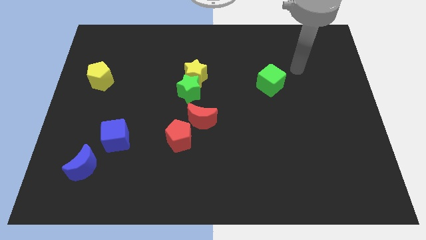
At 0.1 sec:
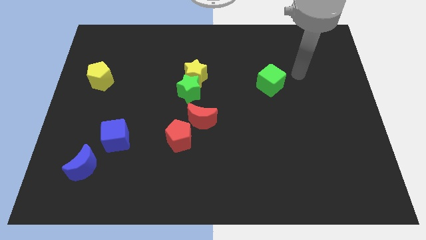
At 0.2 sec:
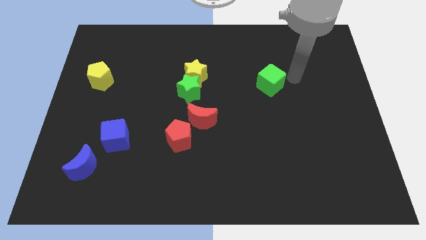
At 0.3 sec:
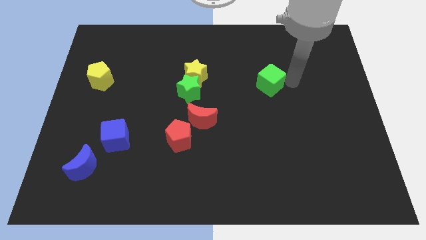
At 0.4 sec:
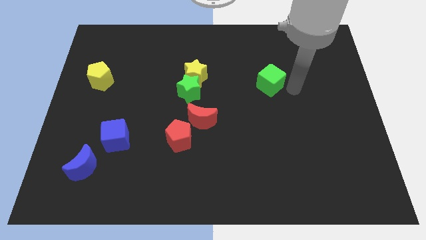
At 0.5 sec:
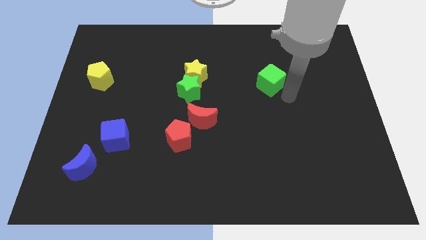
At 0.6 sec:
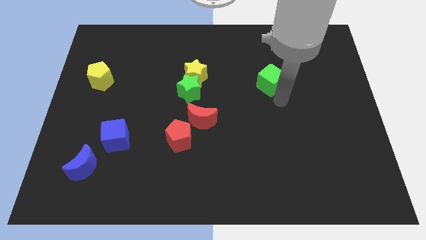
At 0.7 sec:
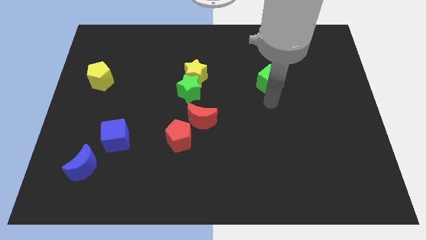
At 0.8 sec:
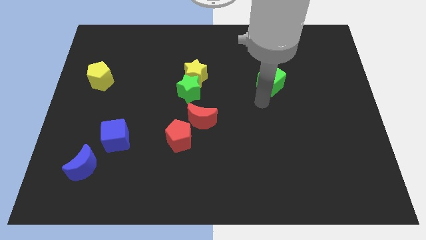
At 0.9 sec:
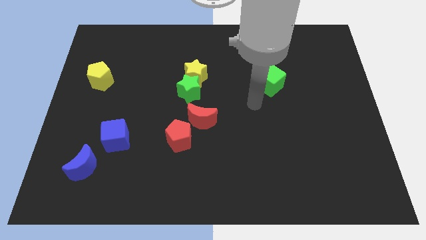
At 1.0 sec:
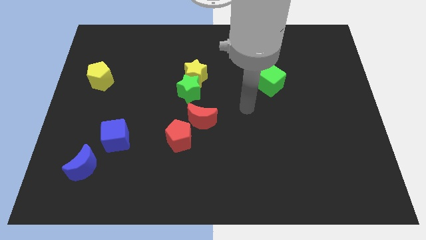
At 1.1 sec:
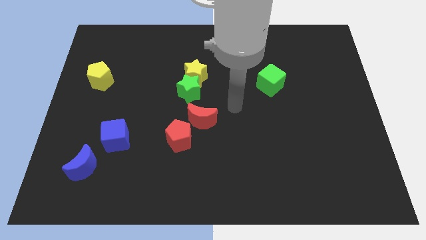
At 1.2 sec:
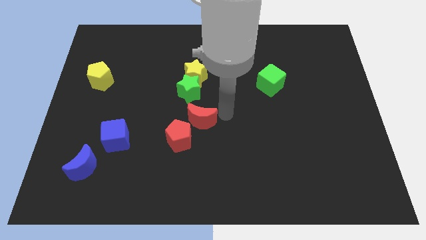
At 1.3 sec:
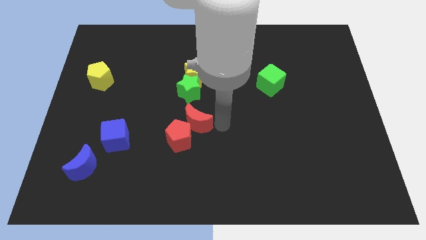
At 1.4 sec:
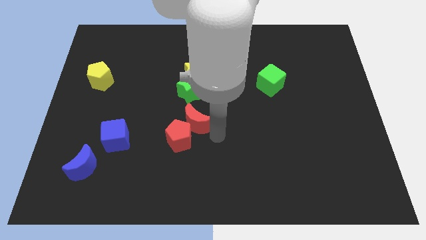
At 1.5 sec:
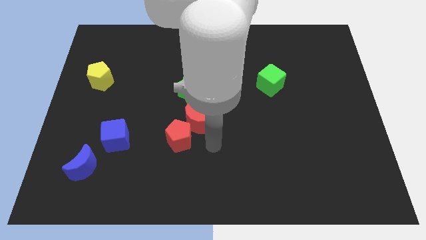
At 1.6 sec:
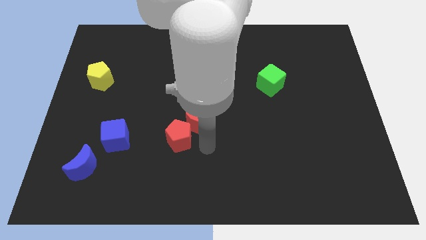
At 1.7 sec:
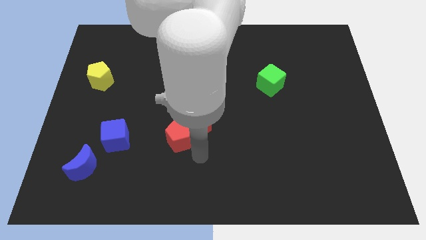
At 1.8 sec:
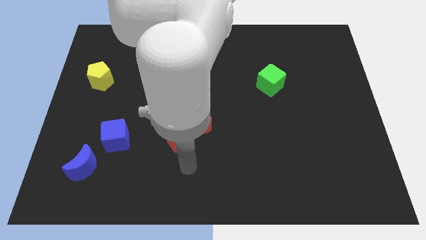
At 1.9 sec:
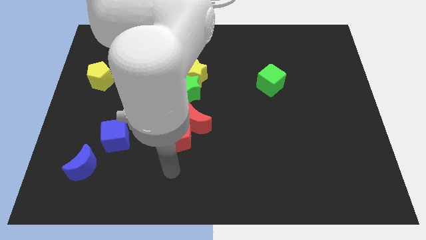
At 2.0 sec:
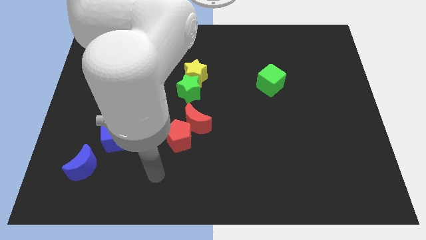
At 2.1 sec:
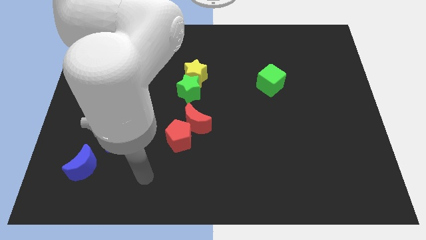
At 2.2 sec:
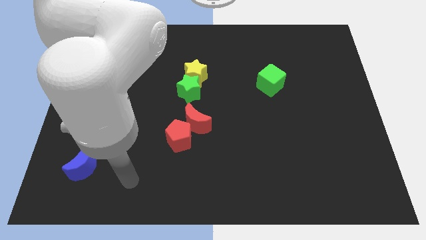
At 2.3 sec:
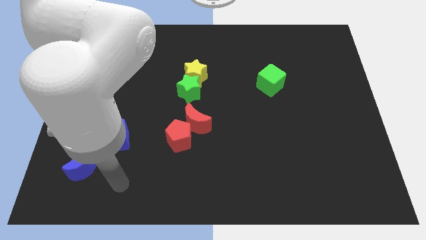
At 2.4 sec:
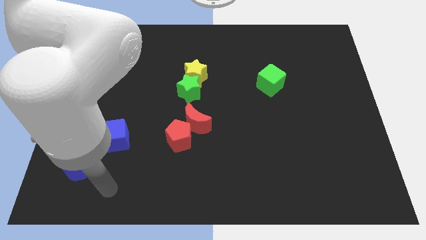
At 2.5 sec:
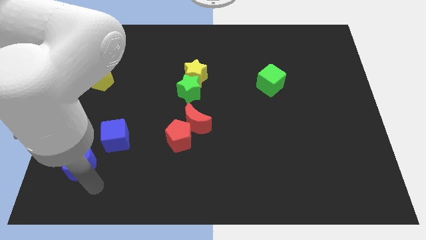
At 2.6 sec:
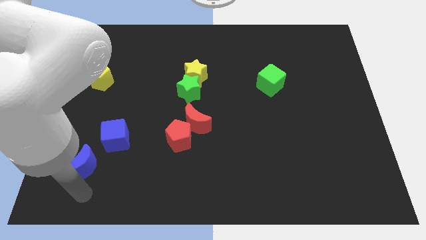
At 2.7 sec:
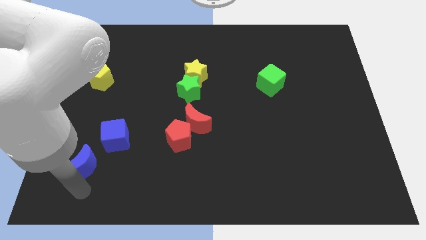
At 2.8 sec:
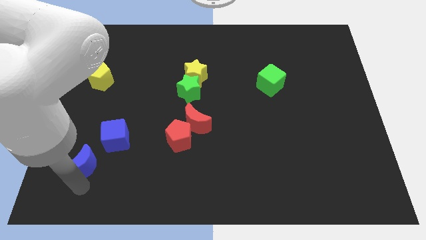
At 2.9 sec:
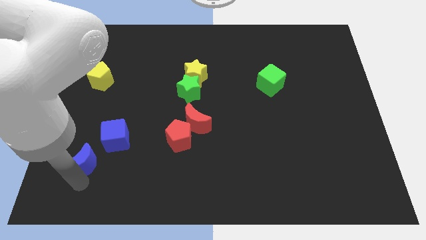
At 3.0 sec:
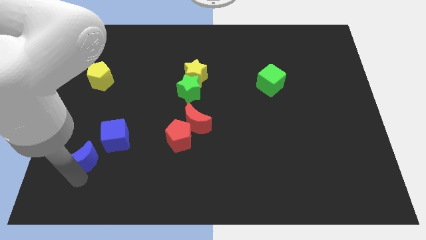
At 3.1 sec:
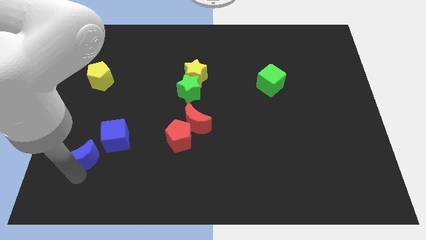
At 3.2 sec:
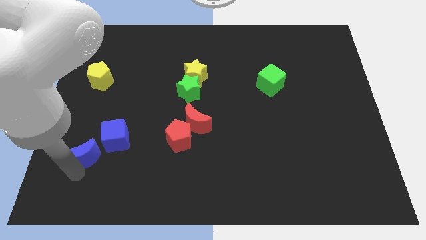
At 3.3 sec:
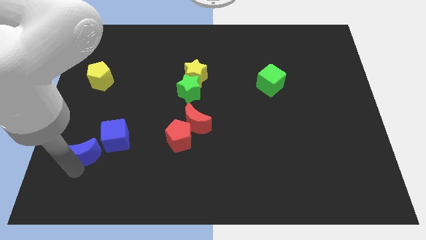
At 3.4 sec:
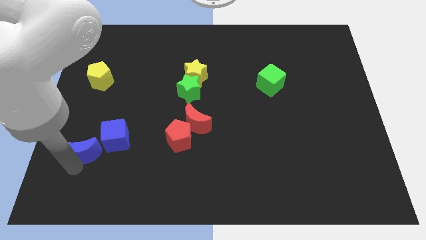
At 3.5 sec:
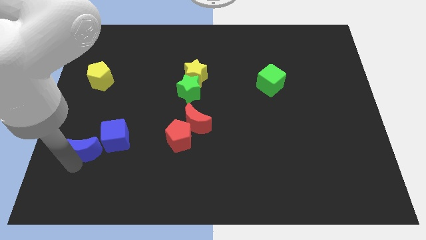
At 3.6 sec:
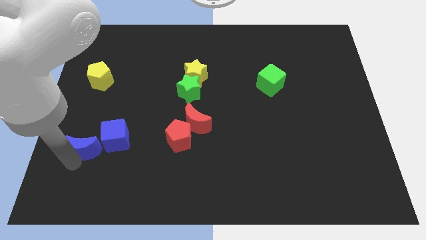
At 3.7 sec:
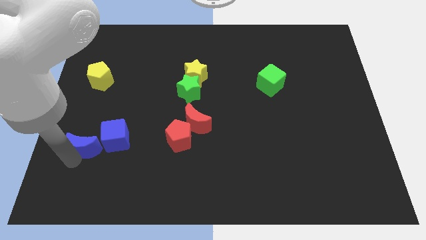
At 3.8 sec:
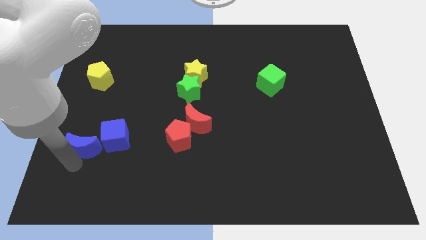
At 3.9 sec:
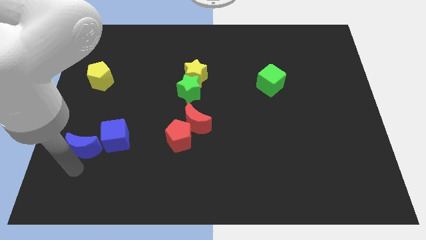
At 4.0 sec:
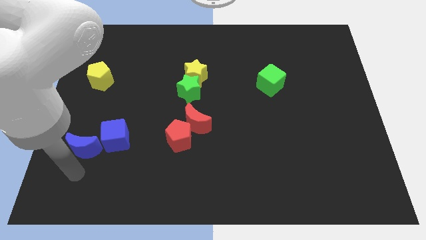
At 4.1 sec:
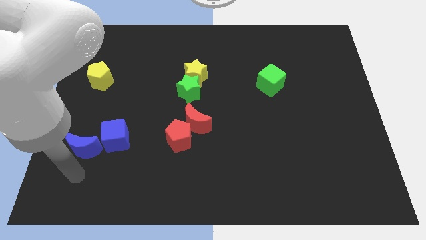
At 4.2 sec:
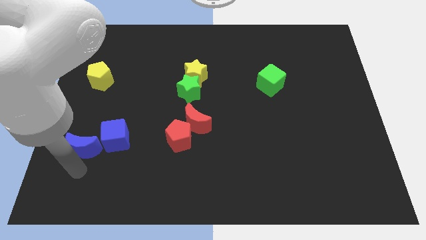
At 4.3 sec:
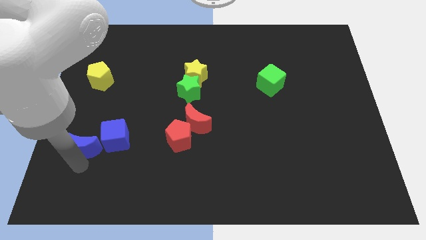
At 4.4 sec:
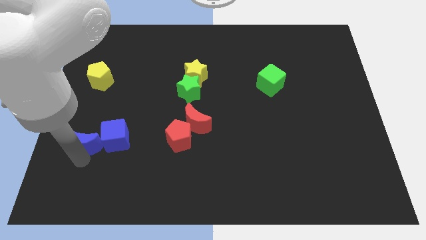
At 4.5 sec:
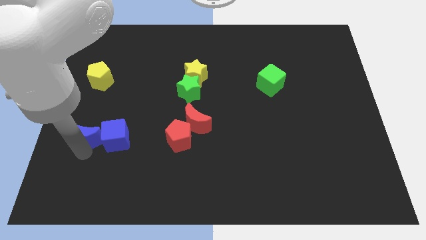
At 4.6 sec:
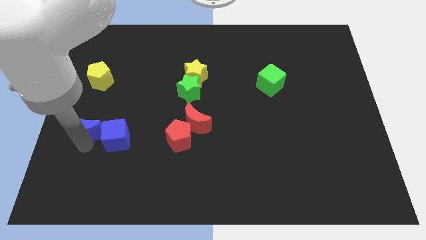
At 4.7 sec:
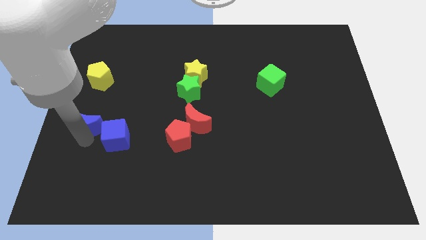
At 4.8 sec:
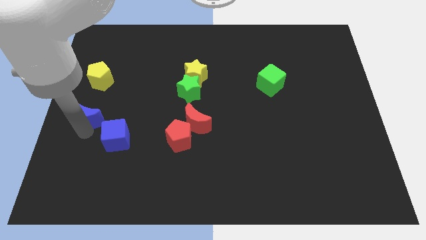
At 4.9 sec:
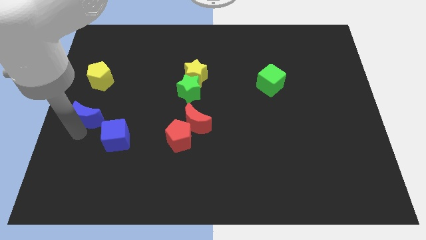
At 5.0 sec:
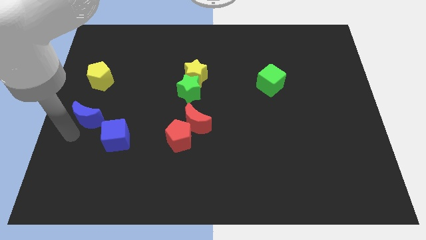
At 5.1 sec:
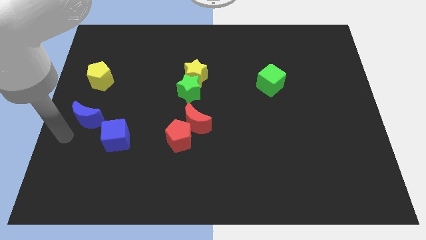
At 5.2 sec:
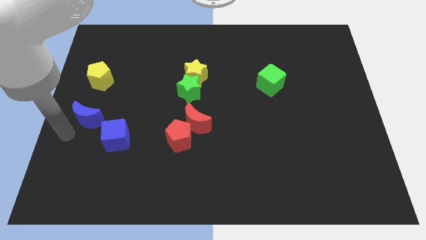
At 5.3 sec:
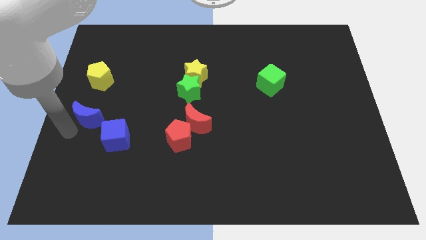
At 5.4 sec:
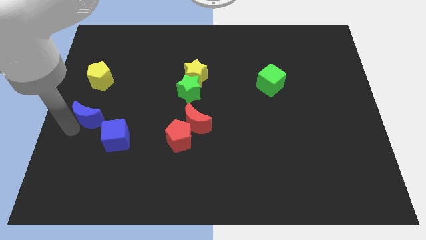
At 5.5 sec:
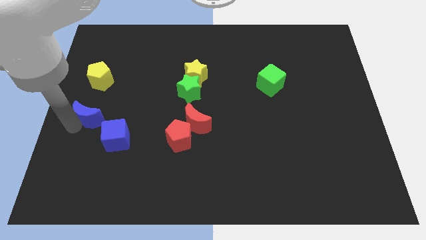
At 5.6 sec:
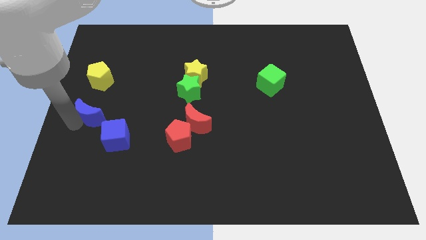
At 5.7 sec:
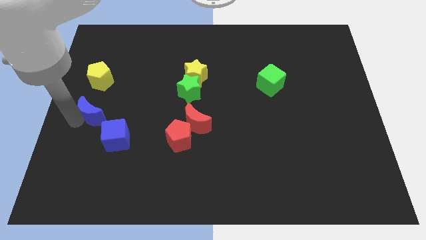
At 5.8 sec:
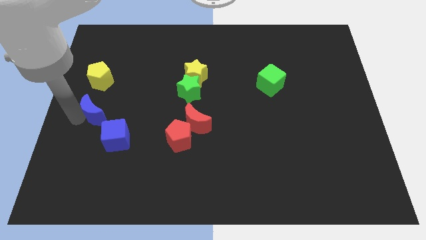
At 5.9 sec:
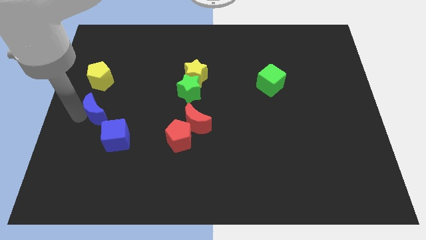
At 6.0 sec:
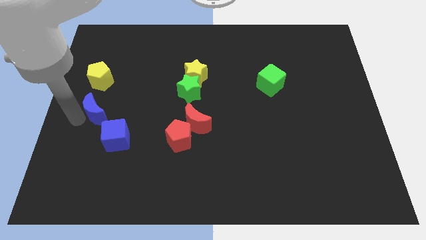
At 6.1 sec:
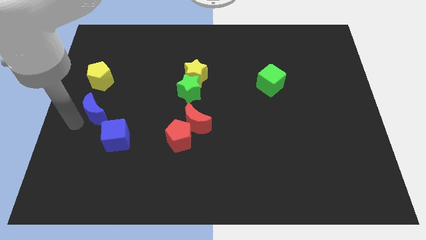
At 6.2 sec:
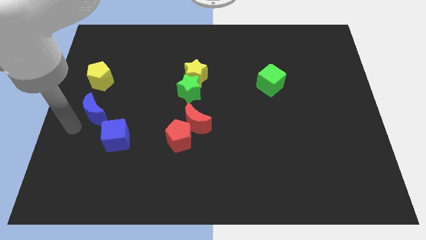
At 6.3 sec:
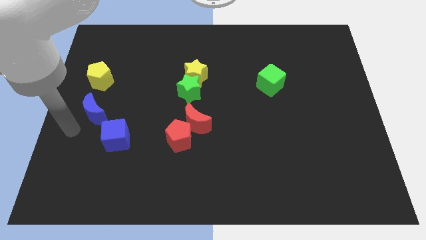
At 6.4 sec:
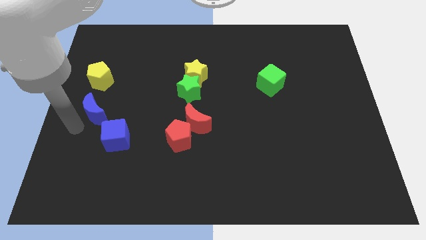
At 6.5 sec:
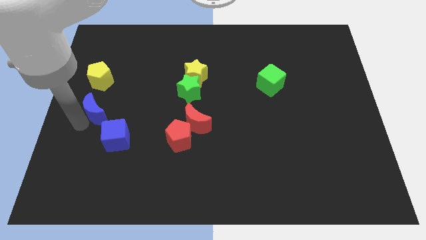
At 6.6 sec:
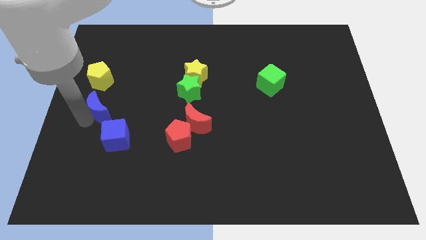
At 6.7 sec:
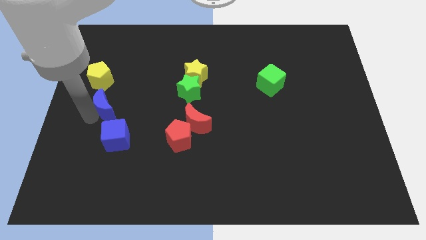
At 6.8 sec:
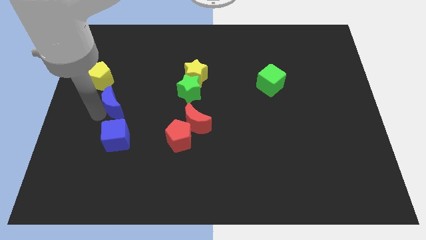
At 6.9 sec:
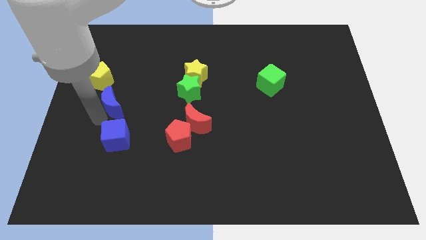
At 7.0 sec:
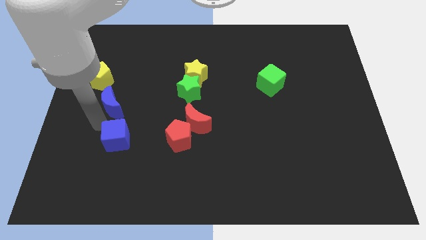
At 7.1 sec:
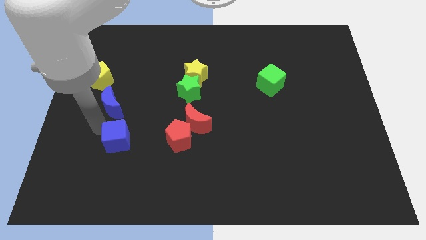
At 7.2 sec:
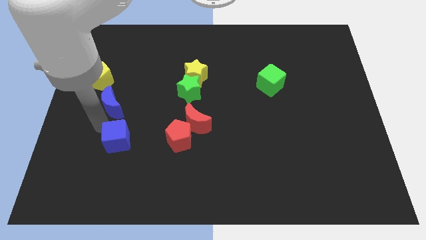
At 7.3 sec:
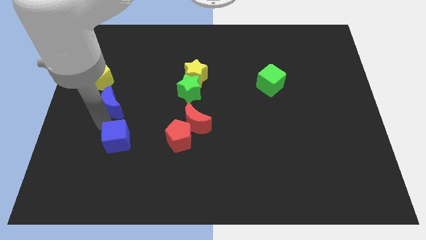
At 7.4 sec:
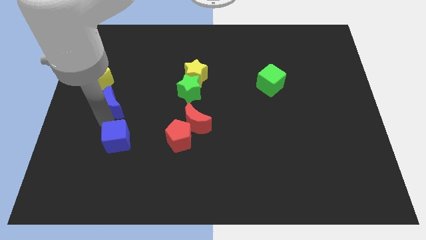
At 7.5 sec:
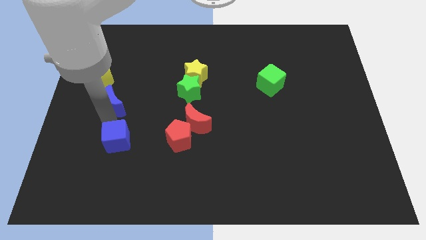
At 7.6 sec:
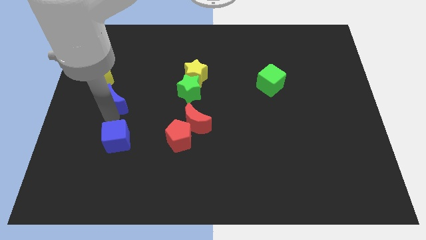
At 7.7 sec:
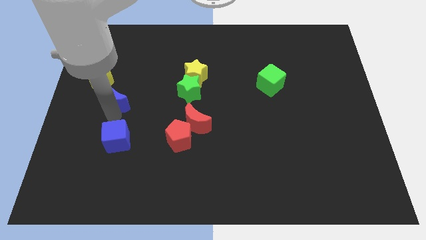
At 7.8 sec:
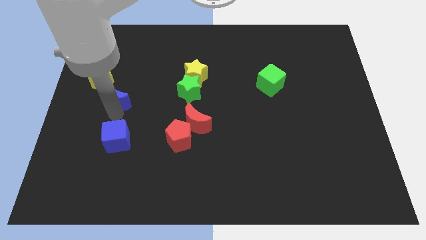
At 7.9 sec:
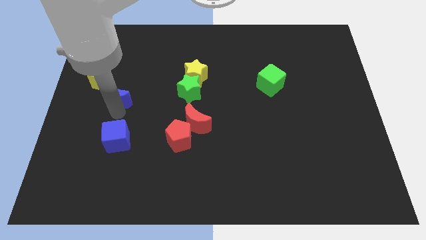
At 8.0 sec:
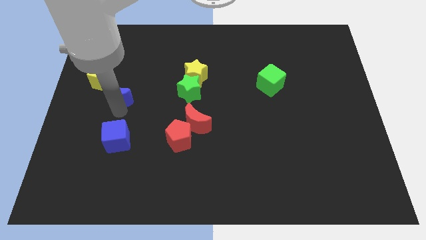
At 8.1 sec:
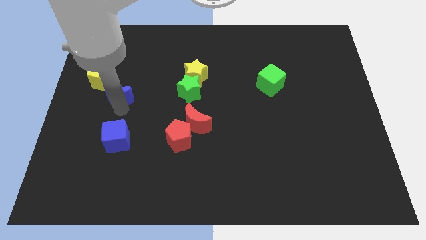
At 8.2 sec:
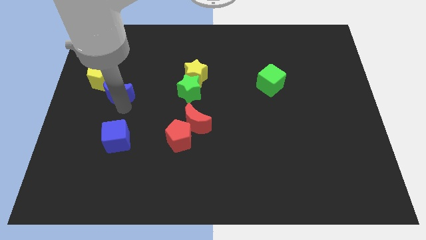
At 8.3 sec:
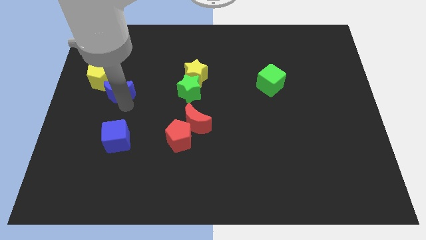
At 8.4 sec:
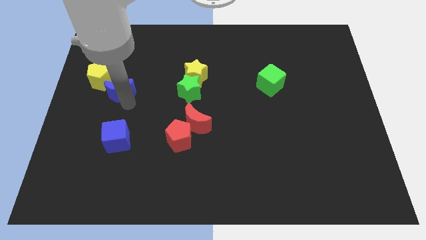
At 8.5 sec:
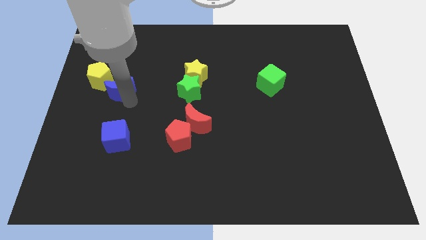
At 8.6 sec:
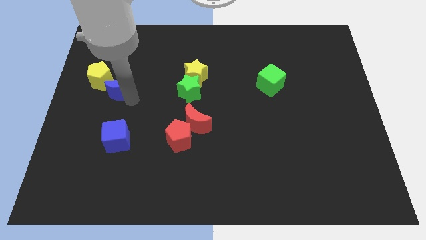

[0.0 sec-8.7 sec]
push the blue moon upwards
